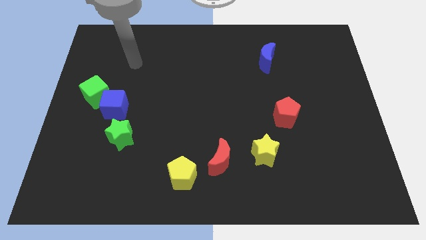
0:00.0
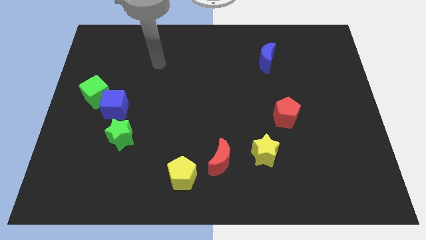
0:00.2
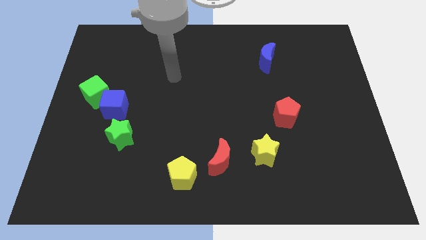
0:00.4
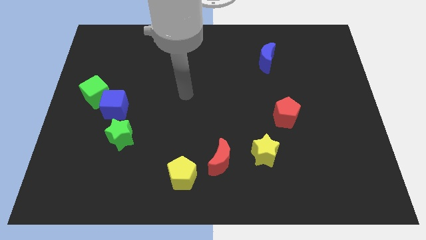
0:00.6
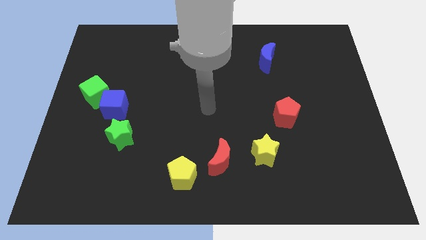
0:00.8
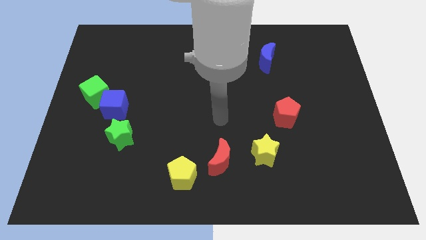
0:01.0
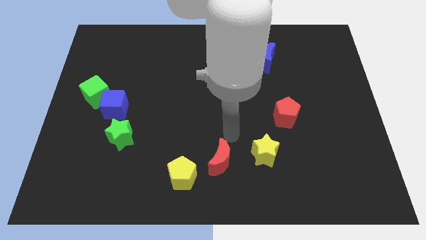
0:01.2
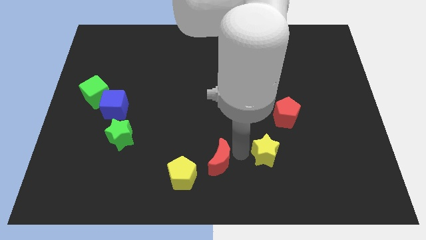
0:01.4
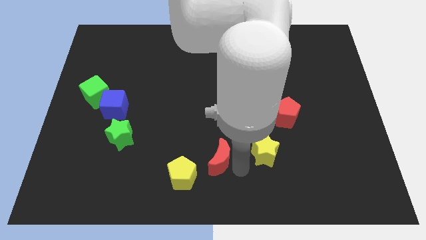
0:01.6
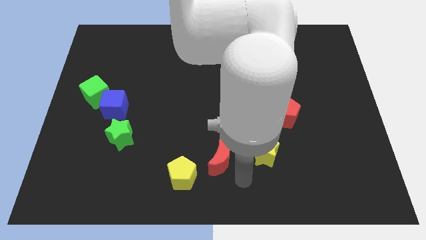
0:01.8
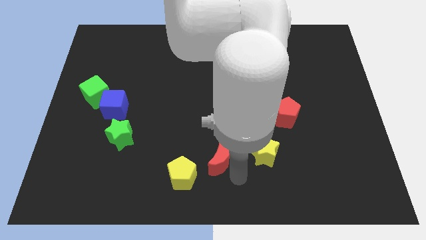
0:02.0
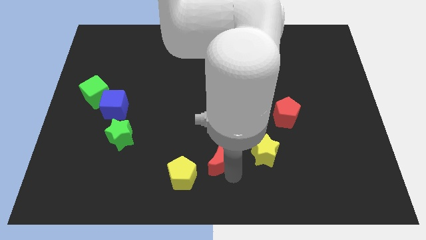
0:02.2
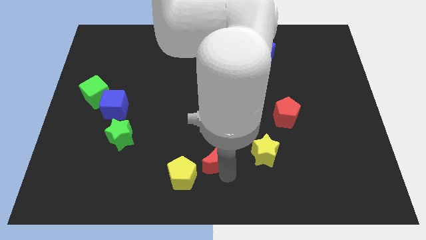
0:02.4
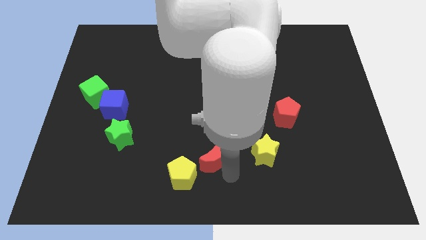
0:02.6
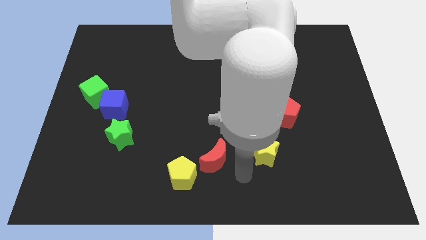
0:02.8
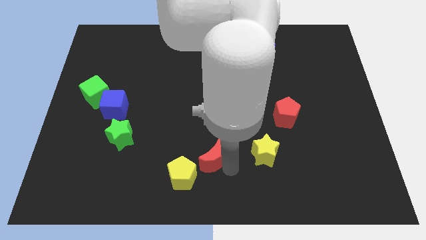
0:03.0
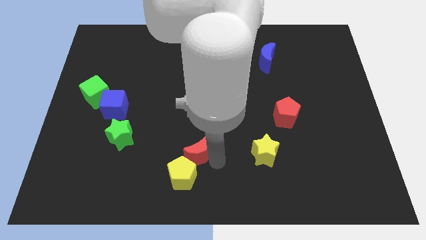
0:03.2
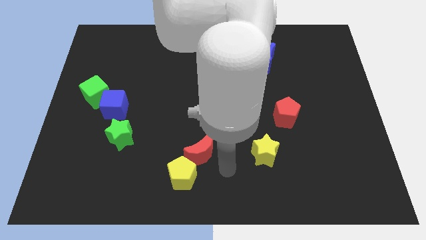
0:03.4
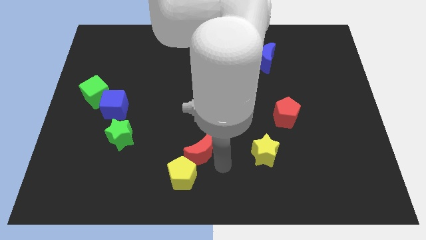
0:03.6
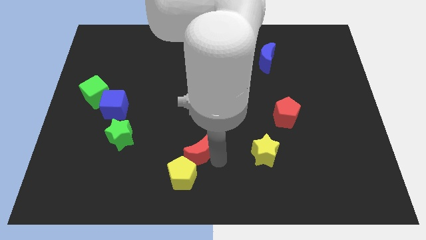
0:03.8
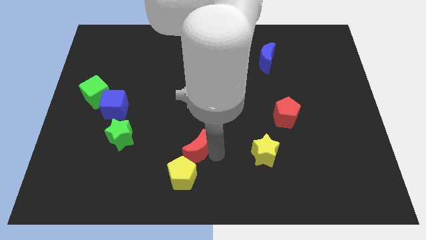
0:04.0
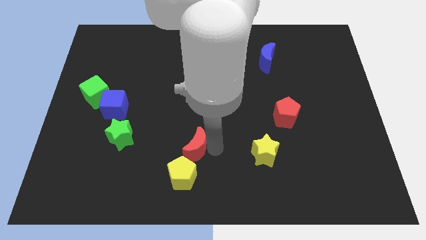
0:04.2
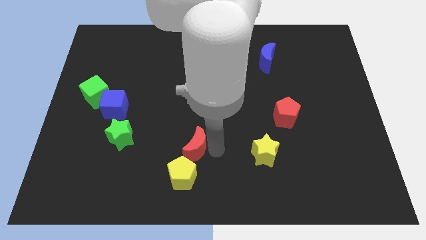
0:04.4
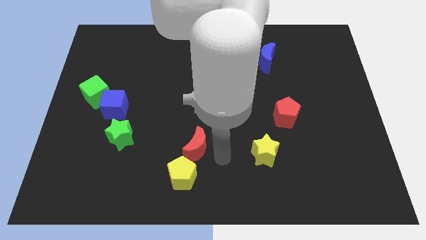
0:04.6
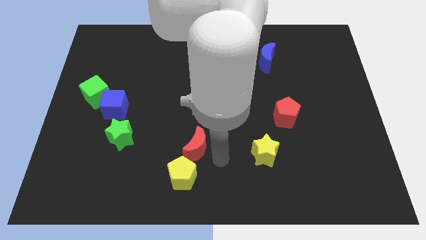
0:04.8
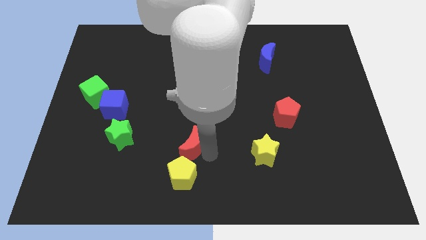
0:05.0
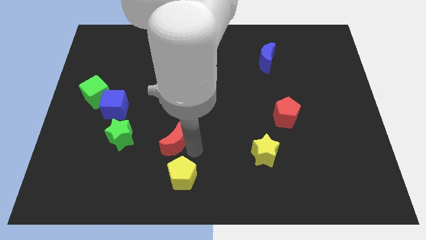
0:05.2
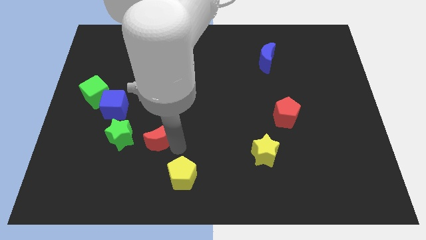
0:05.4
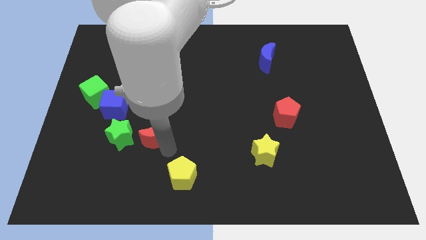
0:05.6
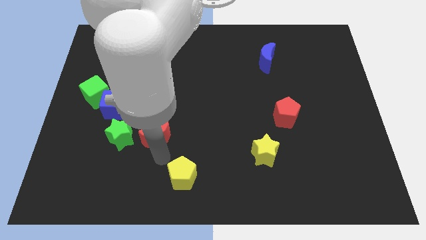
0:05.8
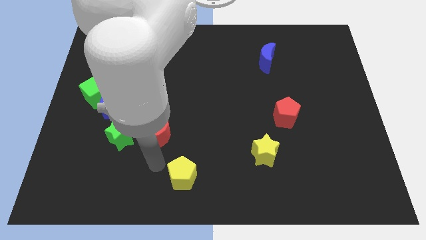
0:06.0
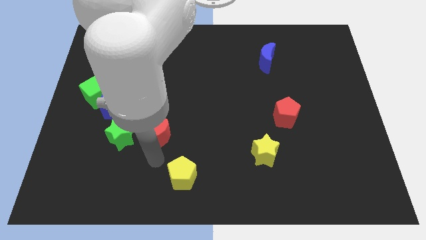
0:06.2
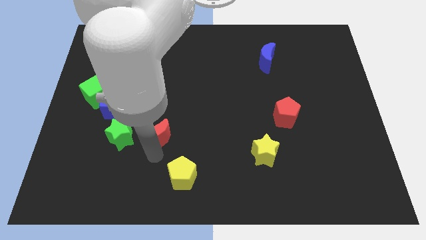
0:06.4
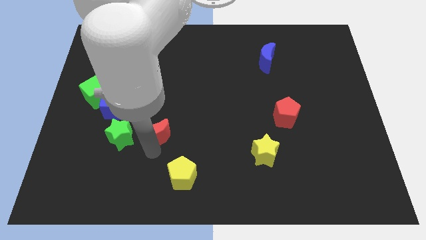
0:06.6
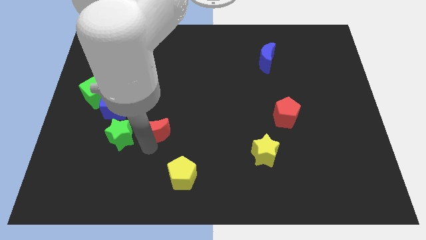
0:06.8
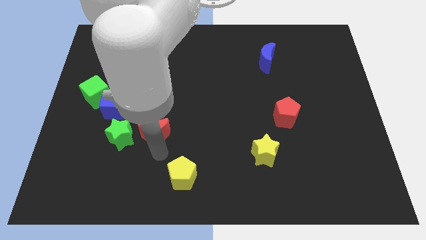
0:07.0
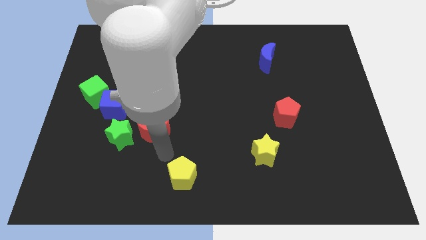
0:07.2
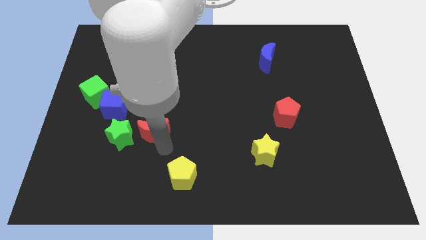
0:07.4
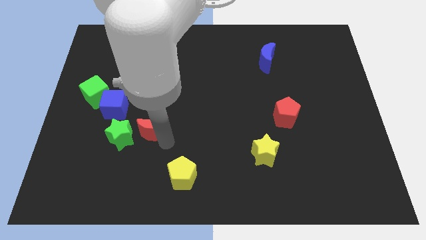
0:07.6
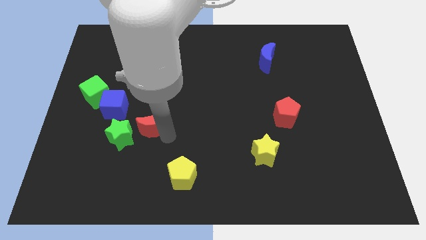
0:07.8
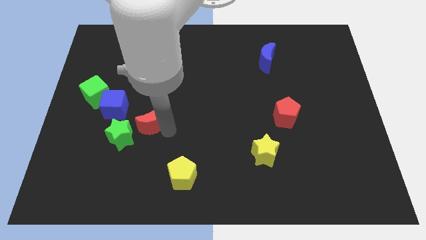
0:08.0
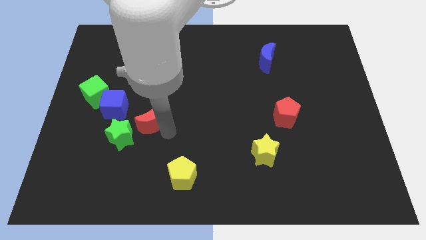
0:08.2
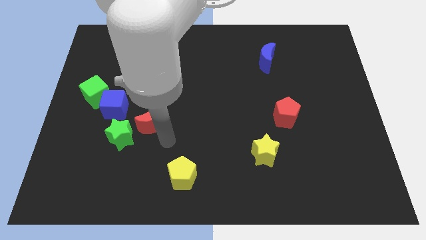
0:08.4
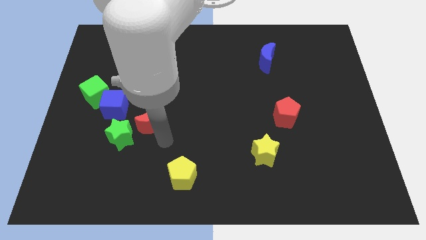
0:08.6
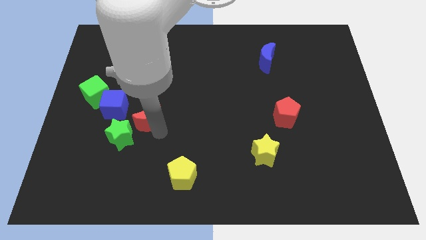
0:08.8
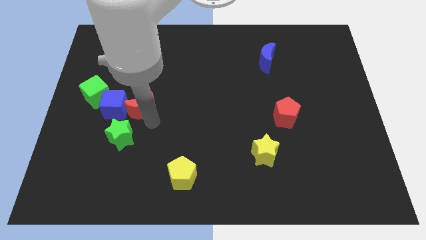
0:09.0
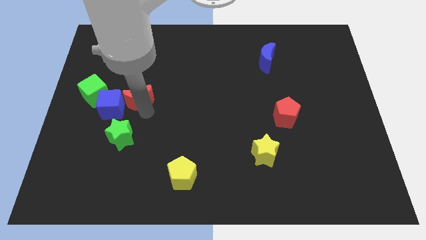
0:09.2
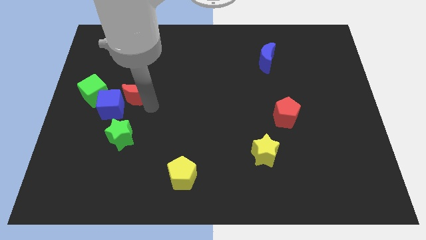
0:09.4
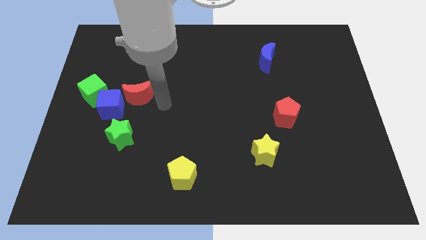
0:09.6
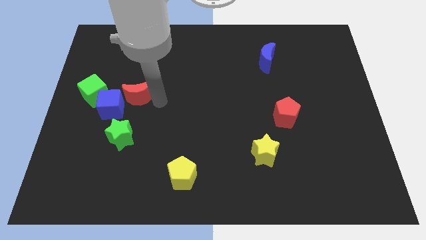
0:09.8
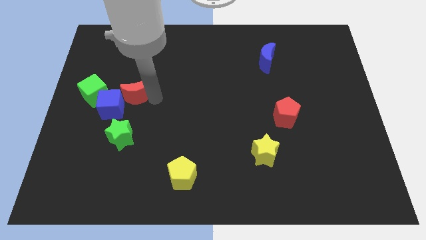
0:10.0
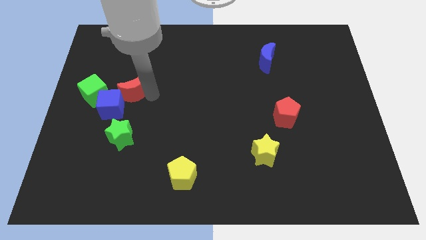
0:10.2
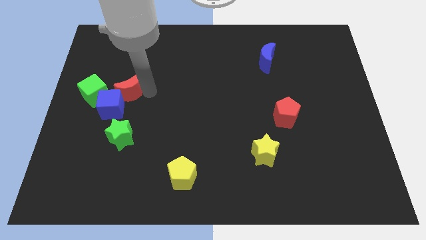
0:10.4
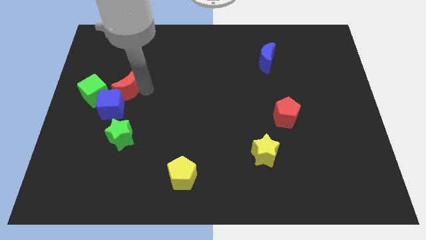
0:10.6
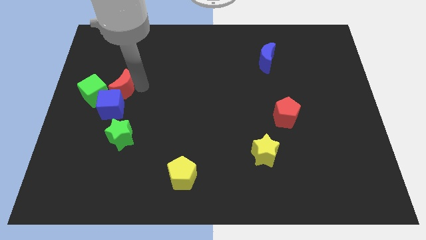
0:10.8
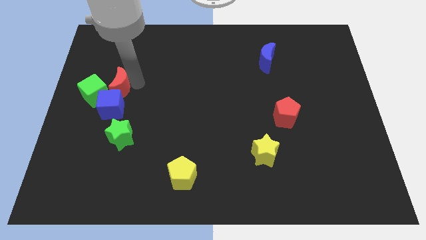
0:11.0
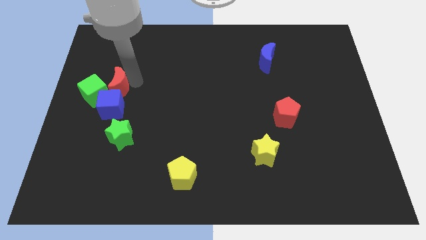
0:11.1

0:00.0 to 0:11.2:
put the red moon next to the green cube
